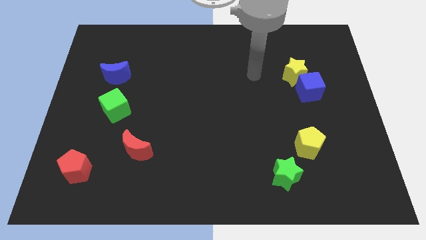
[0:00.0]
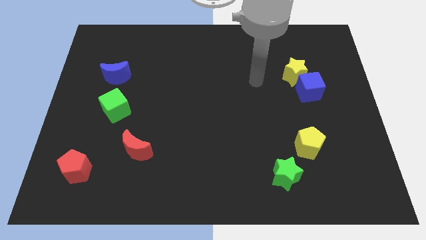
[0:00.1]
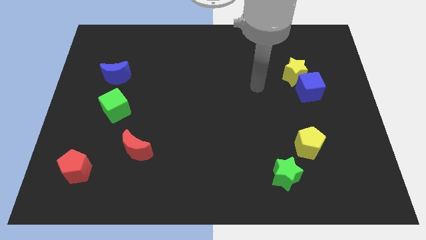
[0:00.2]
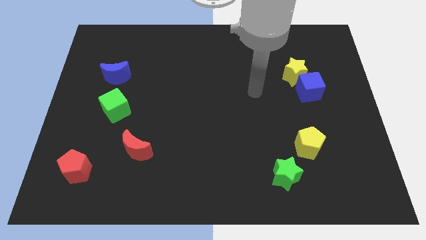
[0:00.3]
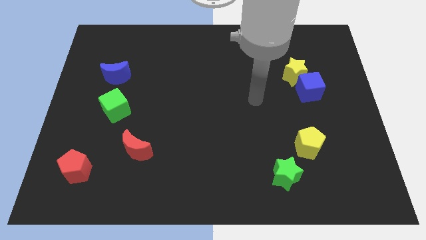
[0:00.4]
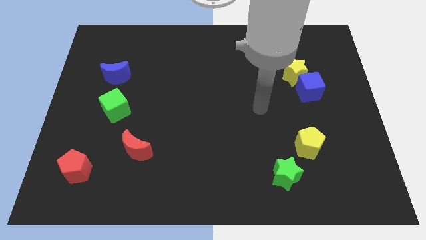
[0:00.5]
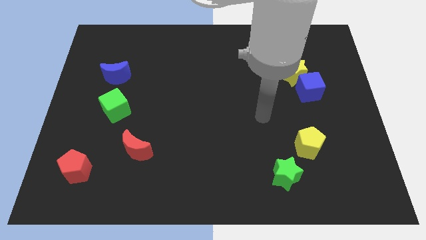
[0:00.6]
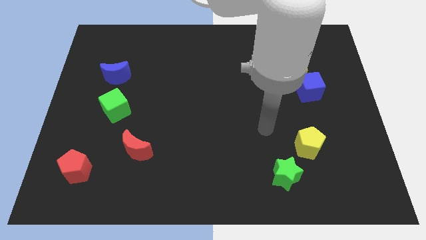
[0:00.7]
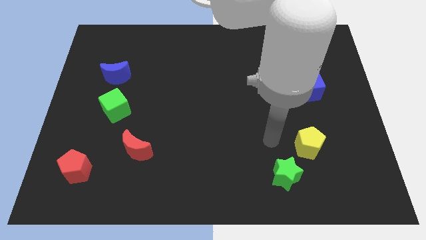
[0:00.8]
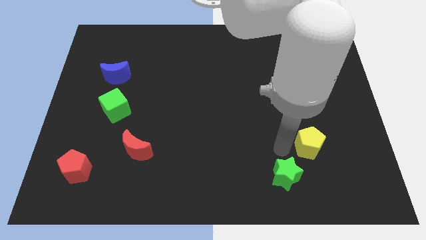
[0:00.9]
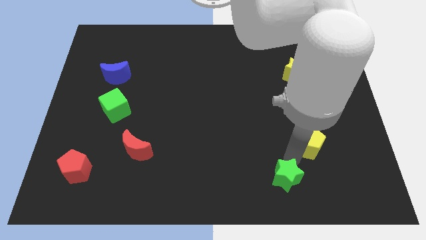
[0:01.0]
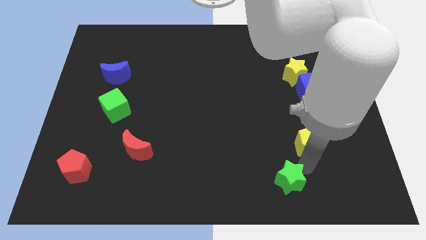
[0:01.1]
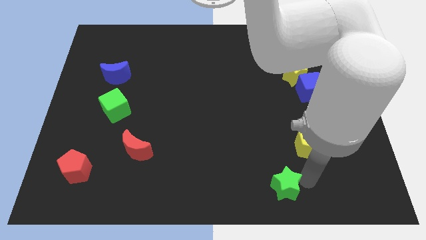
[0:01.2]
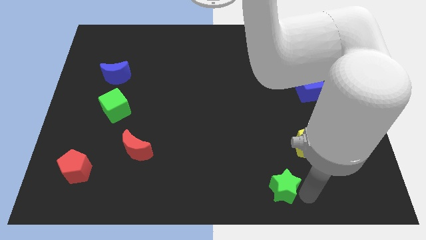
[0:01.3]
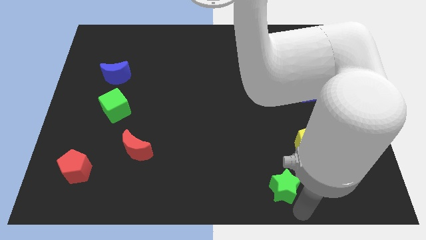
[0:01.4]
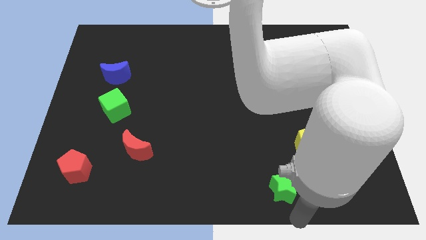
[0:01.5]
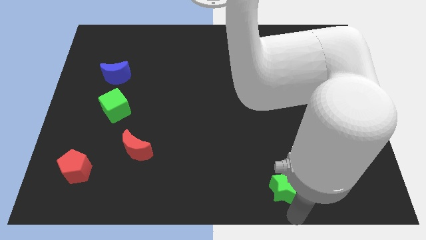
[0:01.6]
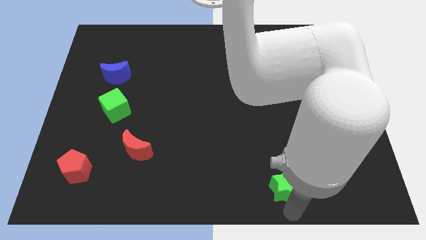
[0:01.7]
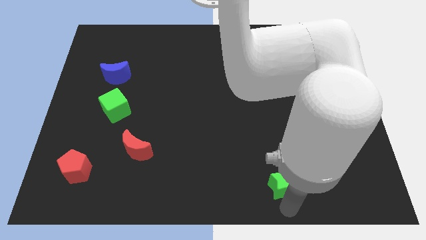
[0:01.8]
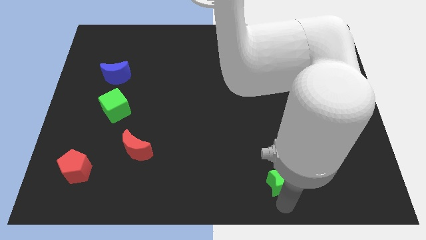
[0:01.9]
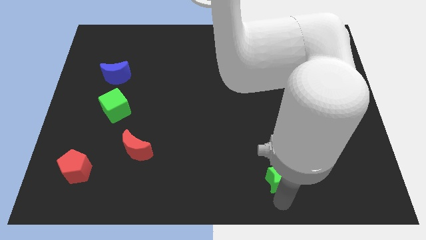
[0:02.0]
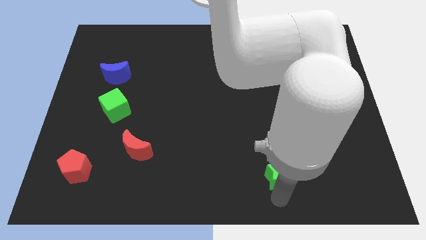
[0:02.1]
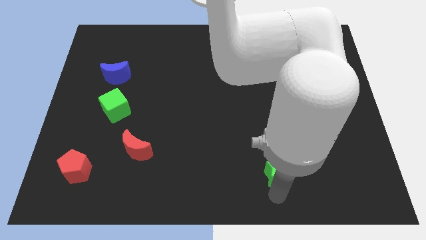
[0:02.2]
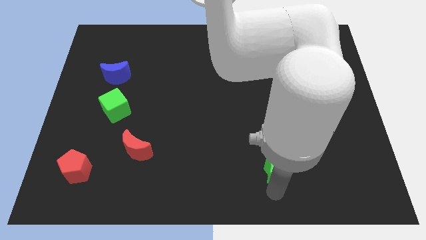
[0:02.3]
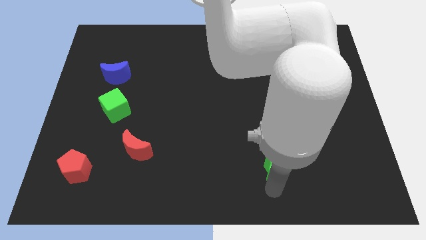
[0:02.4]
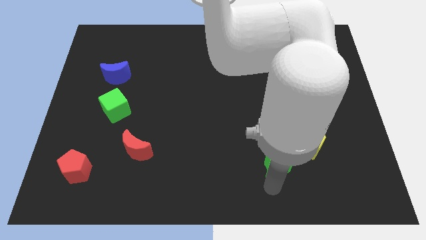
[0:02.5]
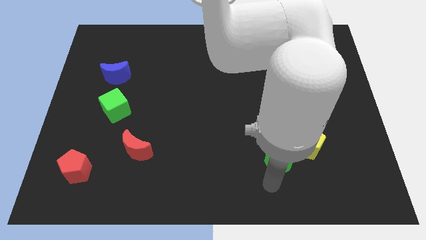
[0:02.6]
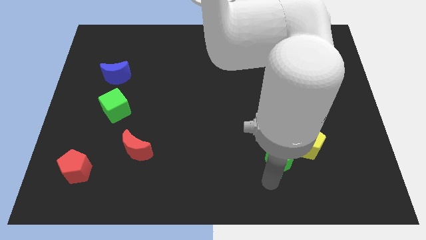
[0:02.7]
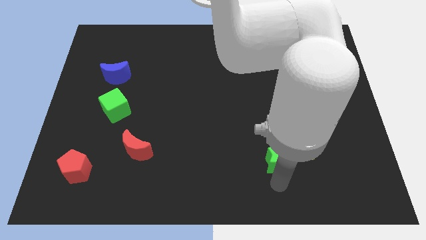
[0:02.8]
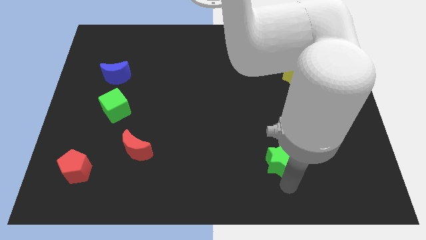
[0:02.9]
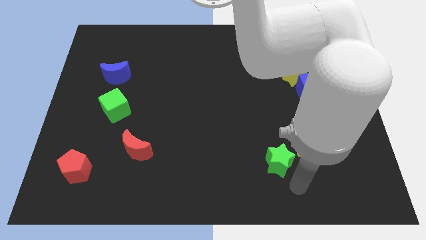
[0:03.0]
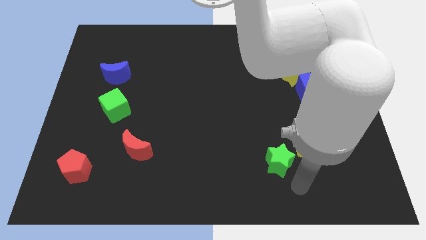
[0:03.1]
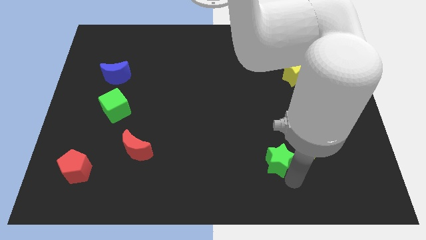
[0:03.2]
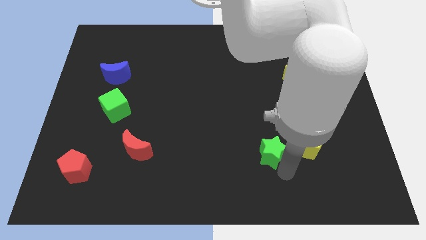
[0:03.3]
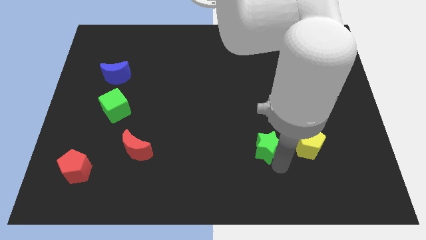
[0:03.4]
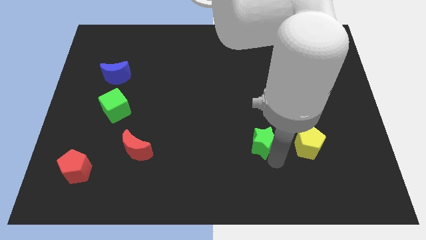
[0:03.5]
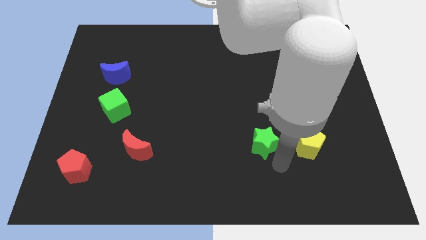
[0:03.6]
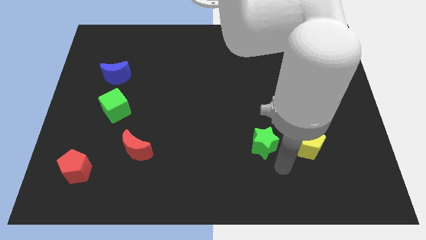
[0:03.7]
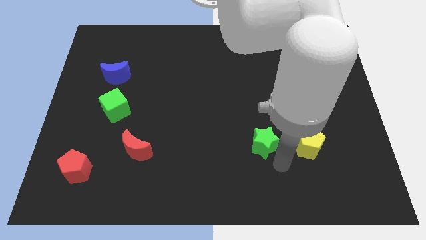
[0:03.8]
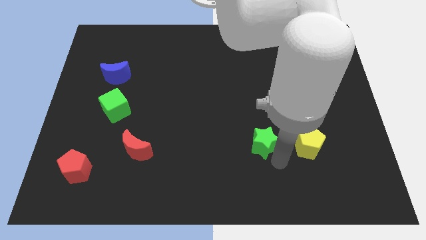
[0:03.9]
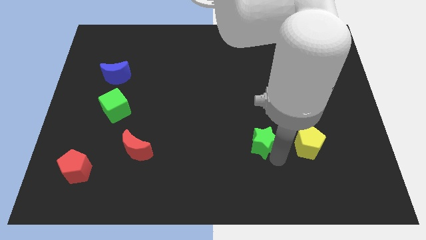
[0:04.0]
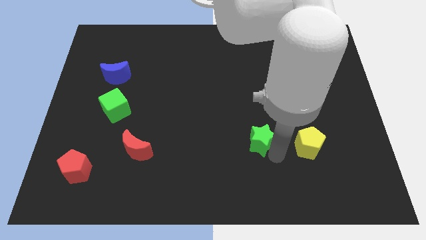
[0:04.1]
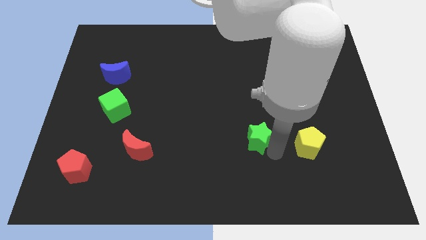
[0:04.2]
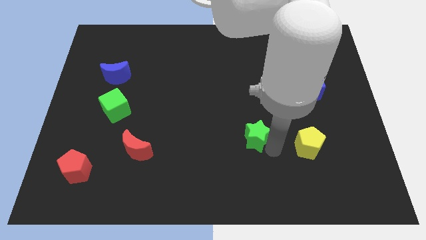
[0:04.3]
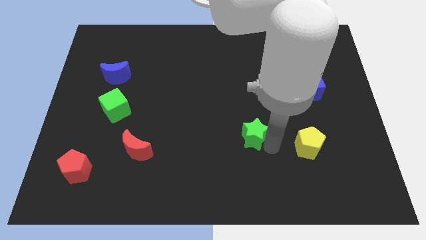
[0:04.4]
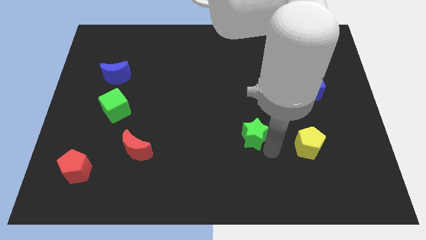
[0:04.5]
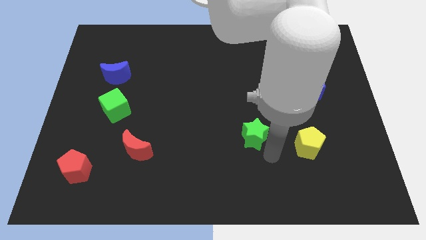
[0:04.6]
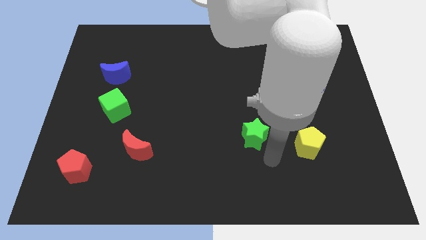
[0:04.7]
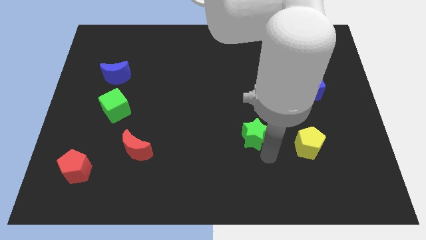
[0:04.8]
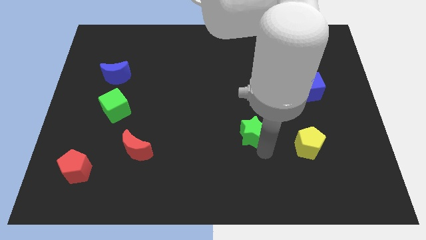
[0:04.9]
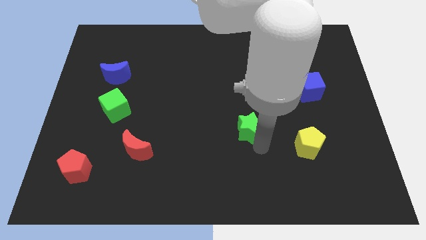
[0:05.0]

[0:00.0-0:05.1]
put the green star to the center of the board
